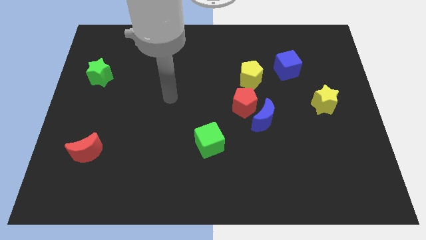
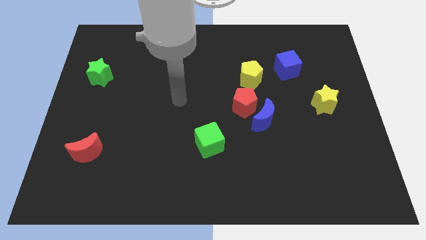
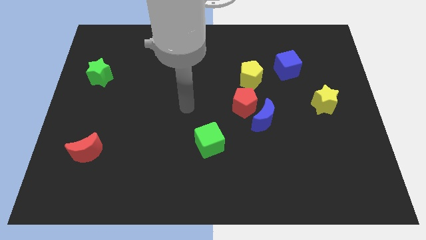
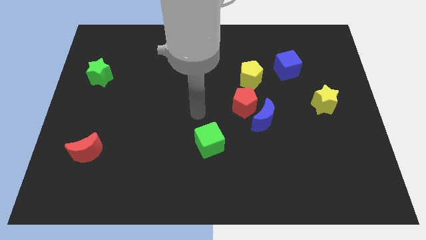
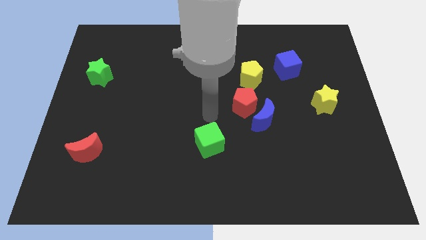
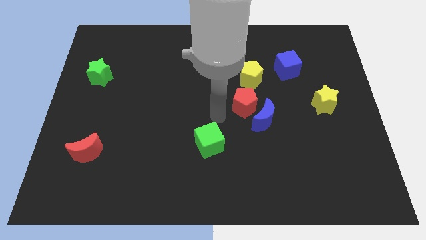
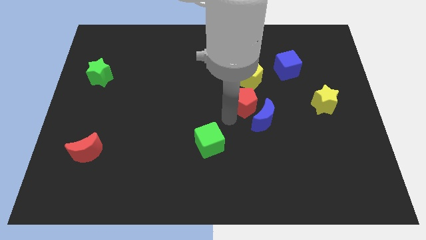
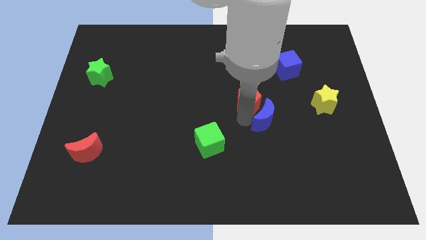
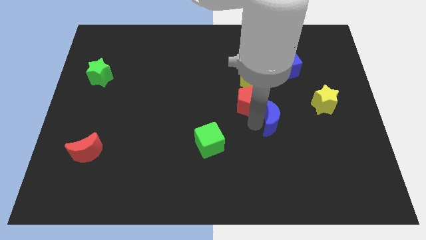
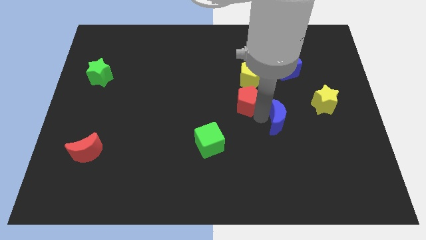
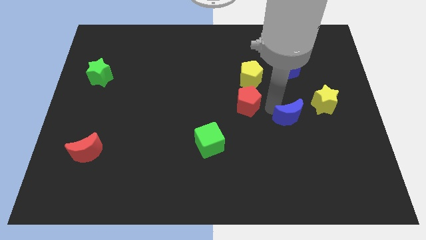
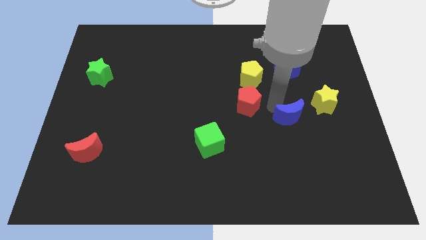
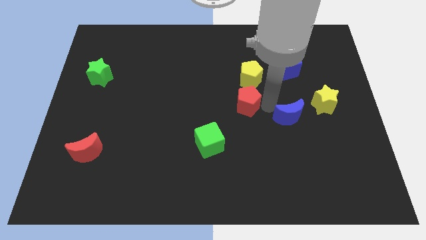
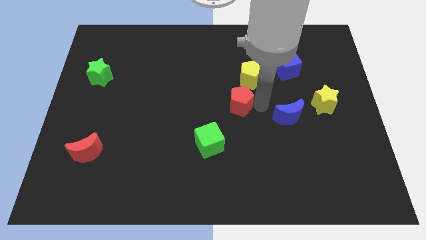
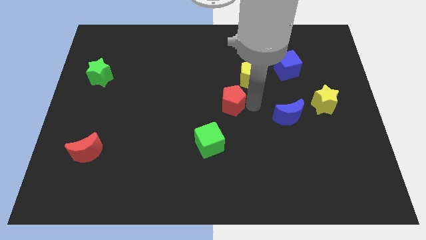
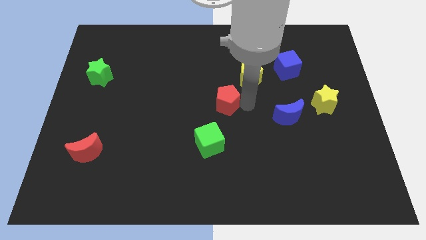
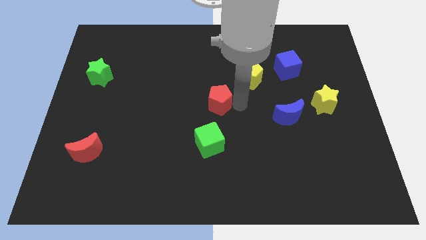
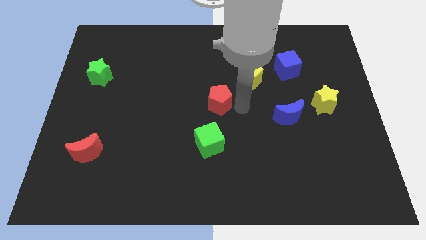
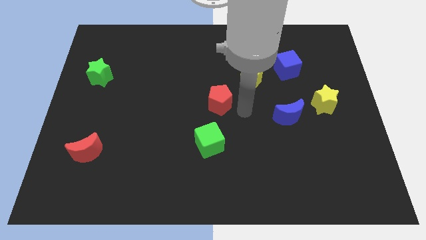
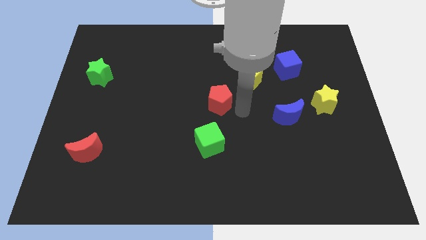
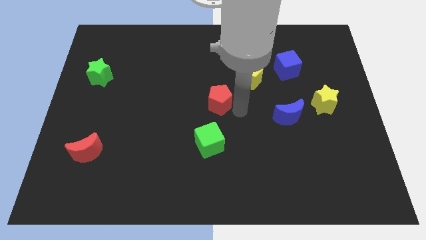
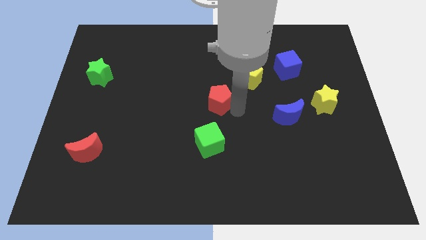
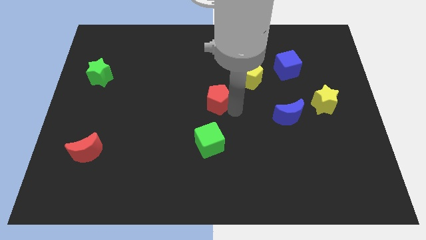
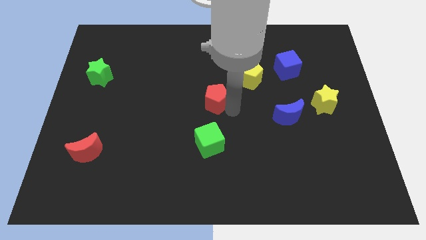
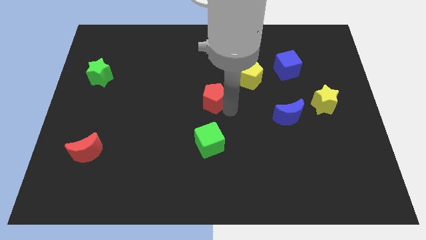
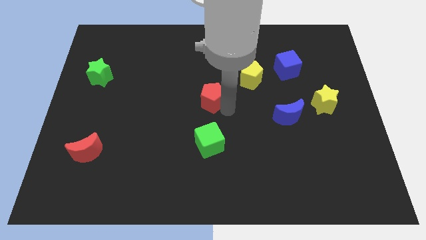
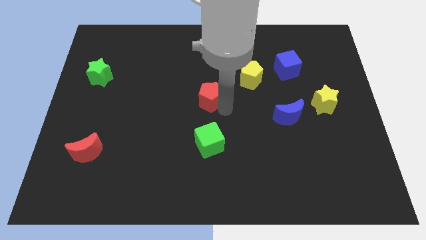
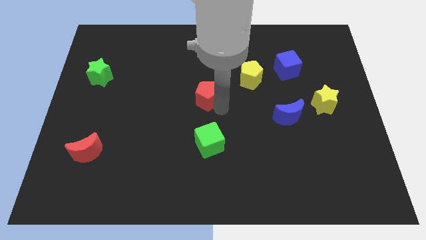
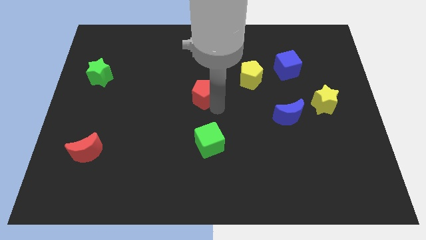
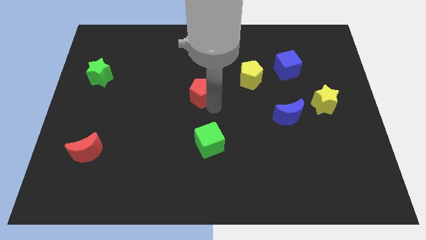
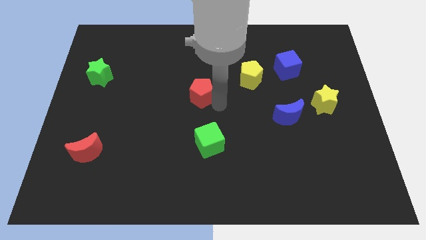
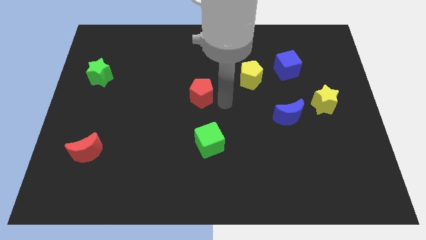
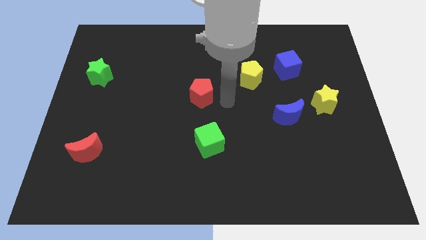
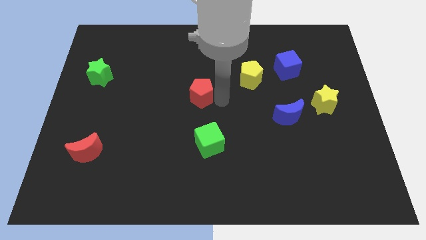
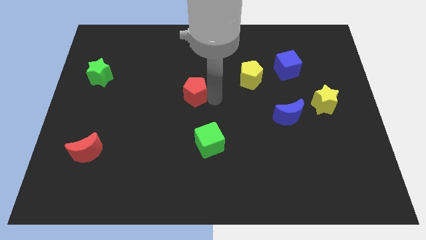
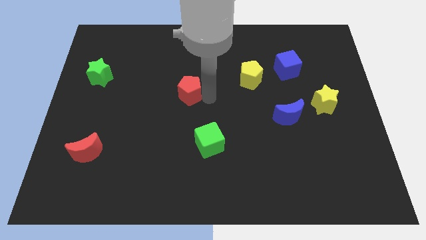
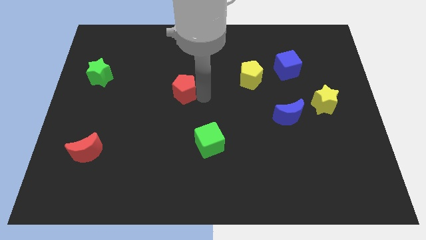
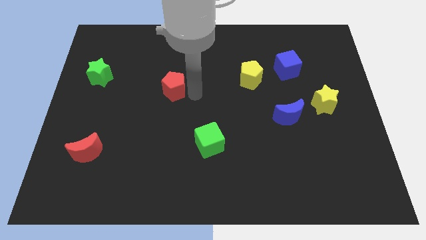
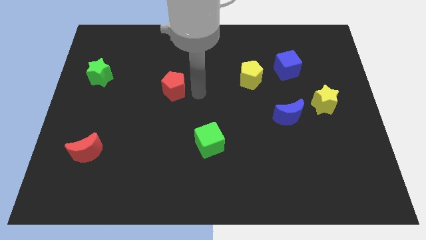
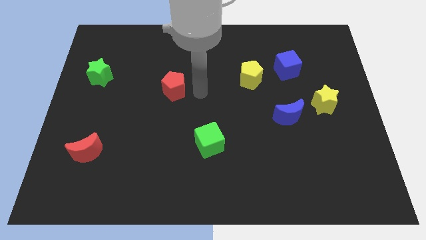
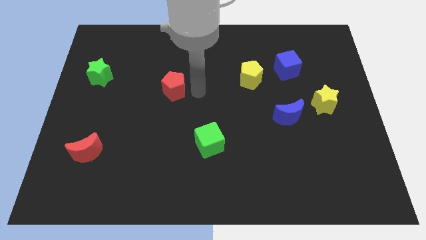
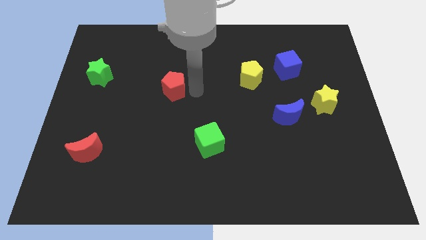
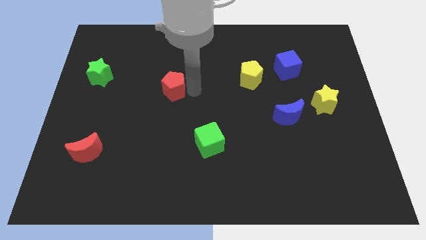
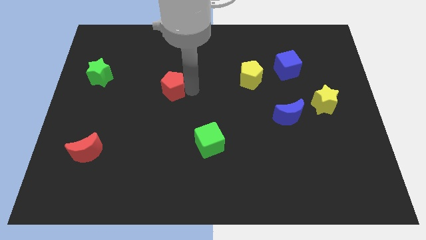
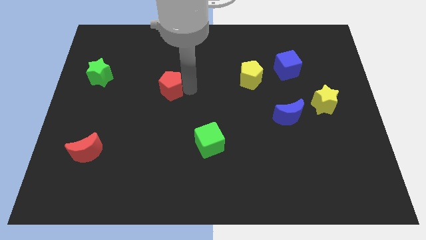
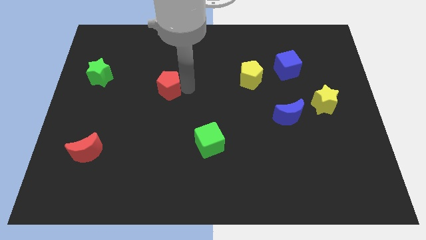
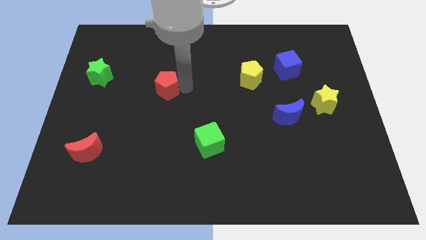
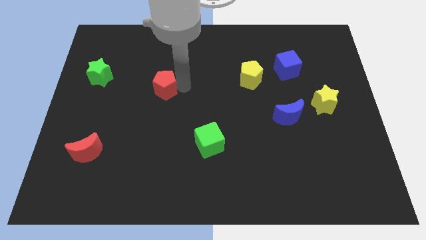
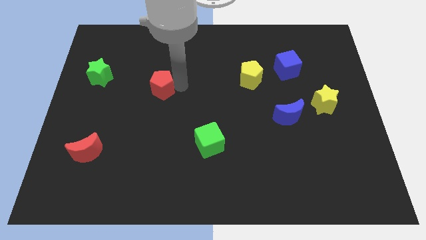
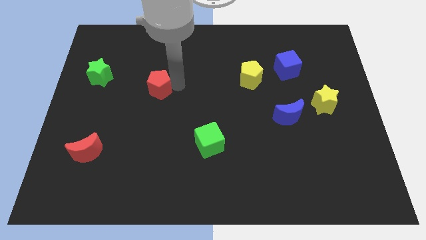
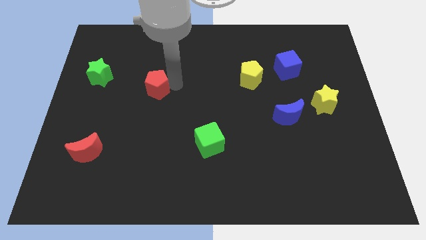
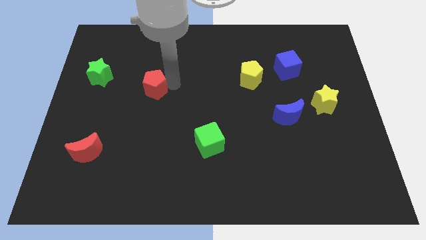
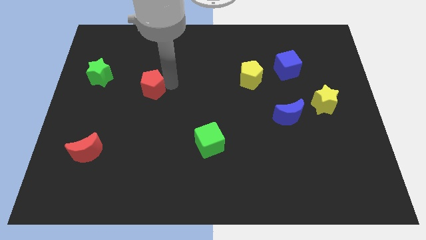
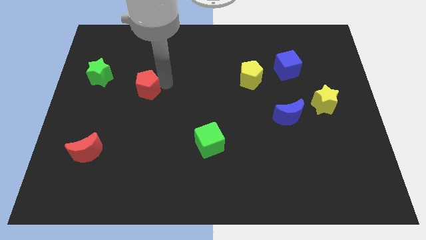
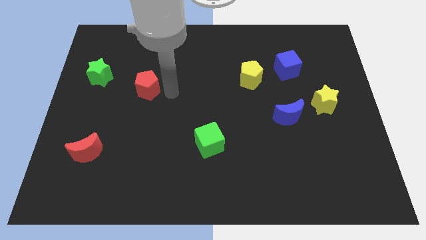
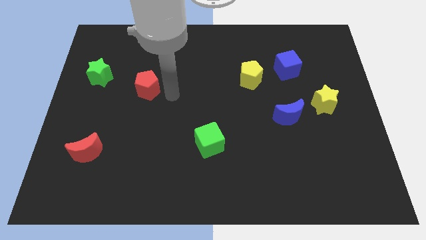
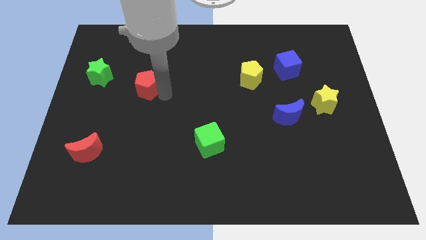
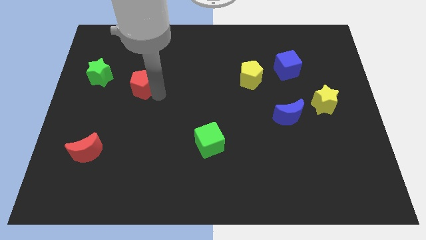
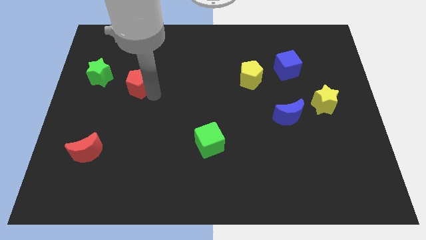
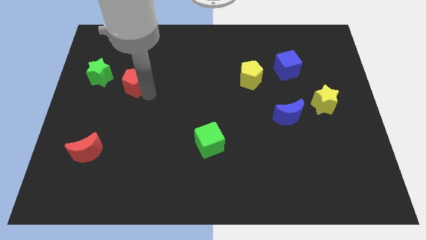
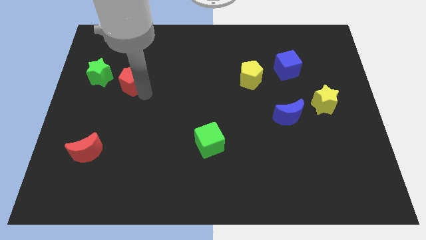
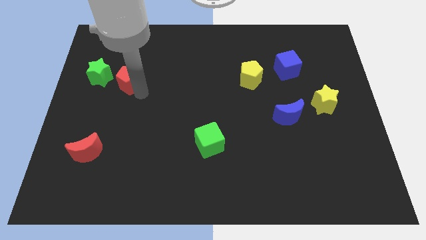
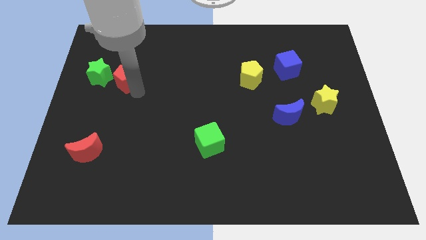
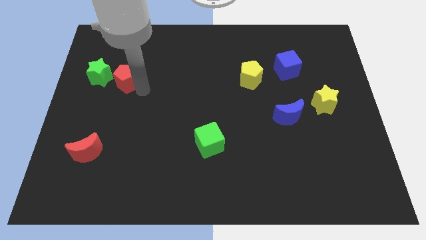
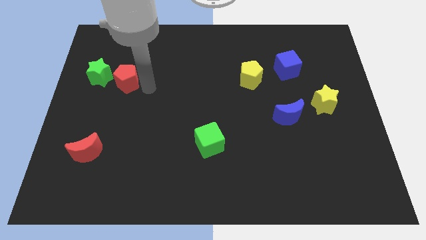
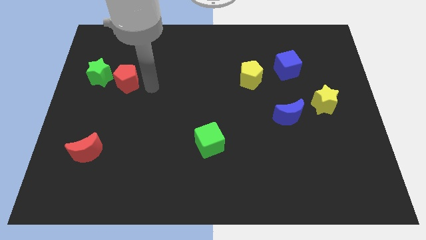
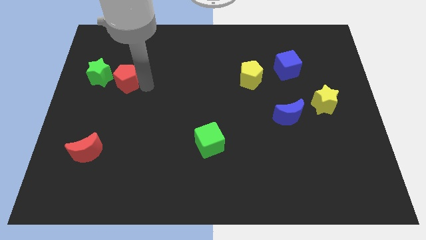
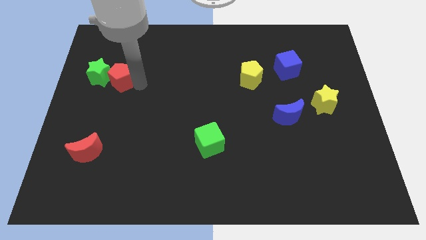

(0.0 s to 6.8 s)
move the red pentagon close to the green star
